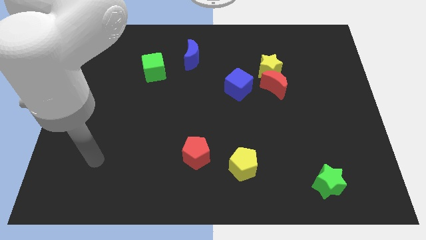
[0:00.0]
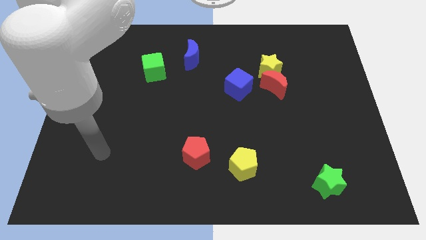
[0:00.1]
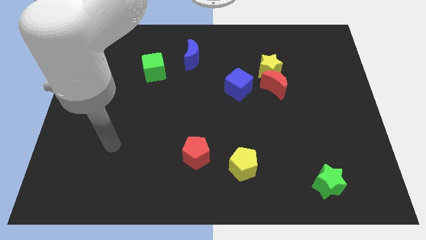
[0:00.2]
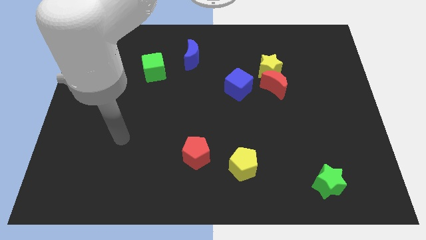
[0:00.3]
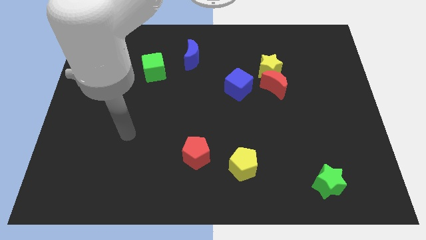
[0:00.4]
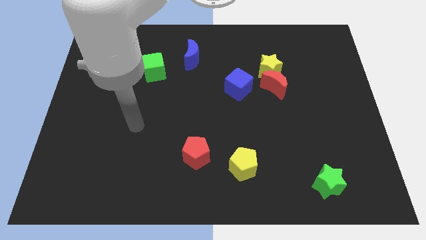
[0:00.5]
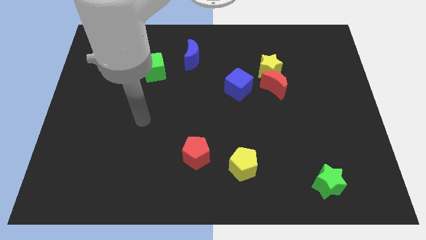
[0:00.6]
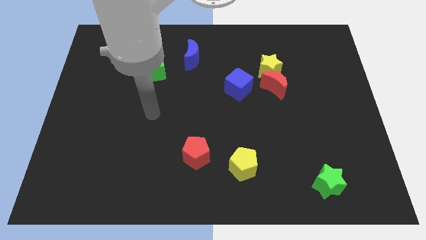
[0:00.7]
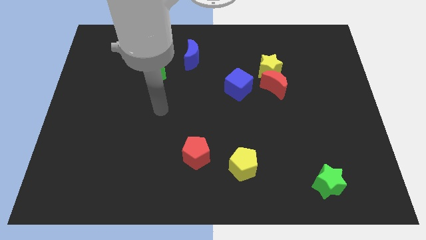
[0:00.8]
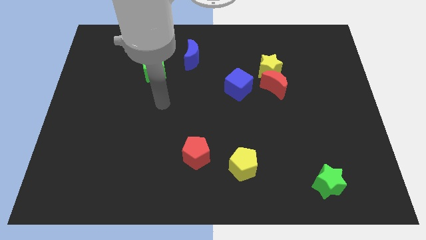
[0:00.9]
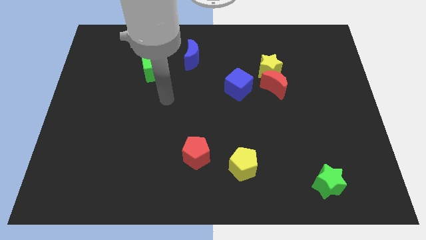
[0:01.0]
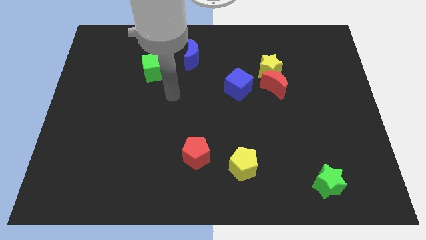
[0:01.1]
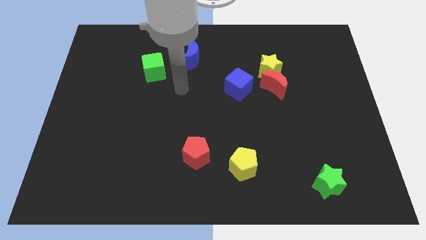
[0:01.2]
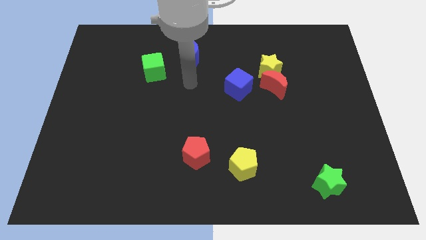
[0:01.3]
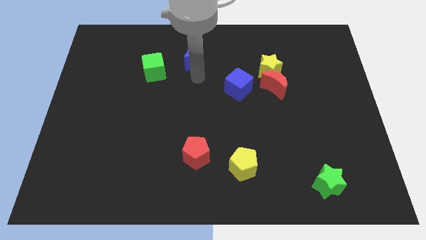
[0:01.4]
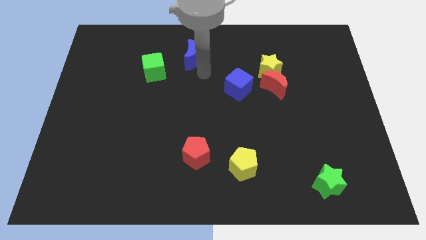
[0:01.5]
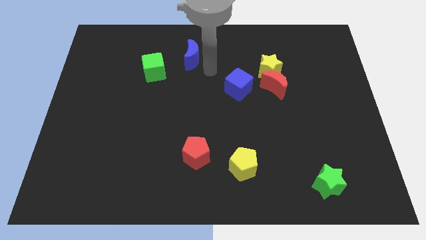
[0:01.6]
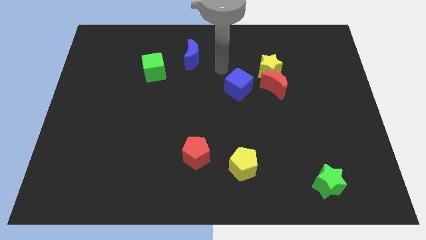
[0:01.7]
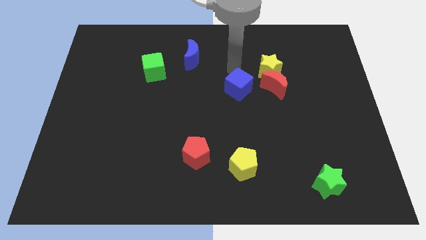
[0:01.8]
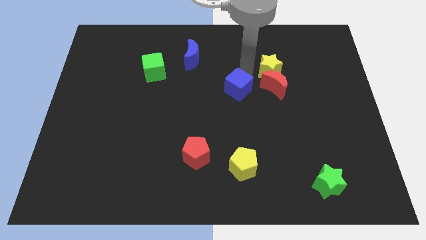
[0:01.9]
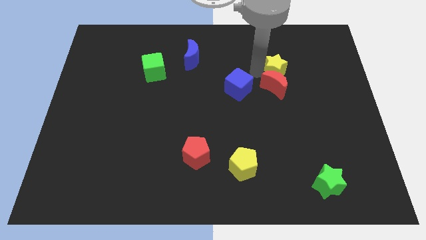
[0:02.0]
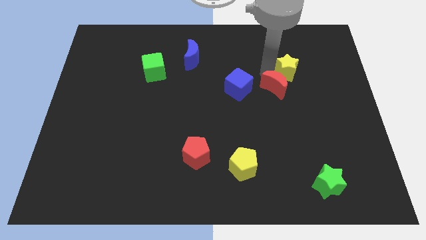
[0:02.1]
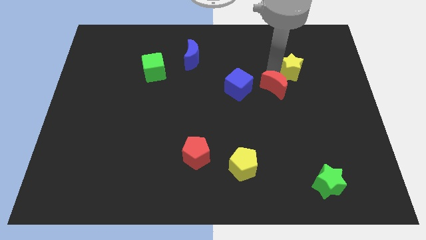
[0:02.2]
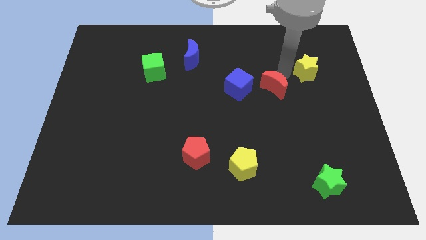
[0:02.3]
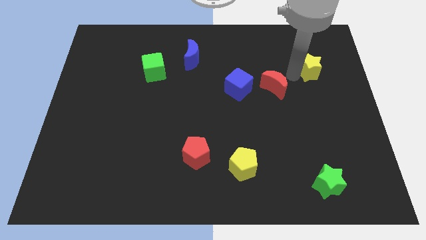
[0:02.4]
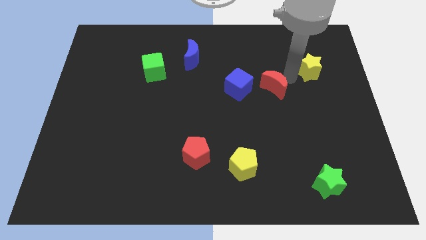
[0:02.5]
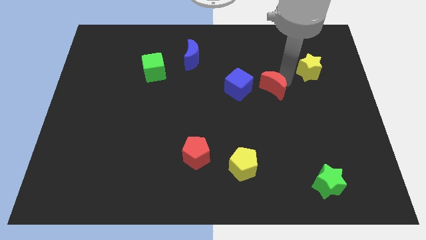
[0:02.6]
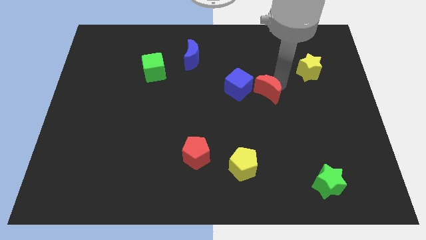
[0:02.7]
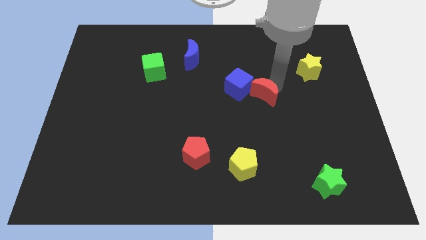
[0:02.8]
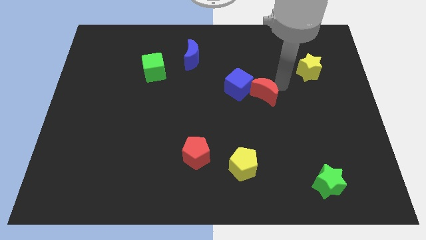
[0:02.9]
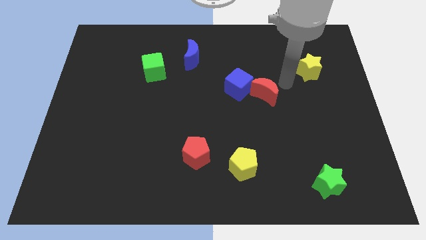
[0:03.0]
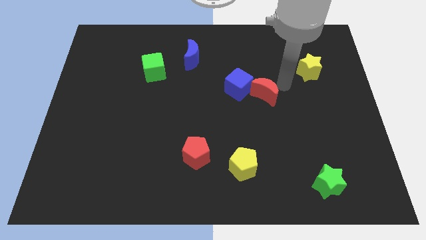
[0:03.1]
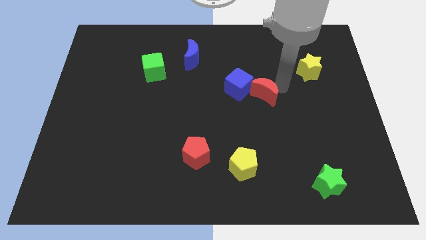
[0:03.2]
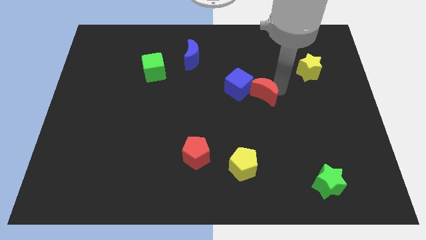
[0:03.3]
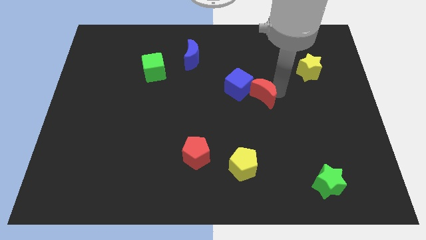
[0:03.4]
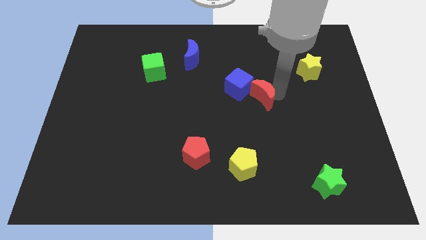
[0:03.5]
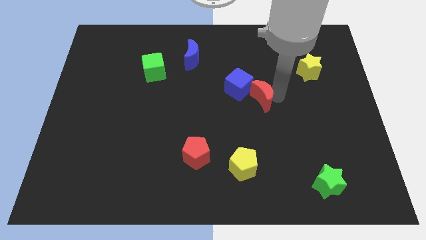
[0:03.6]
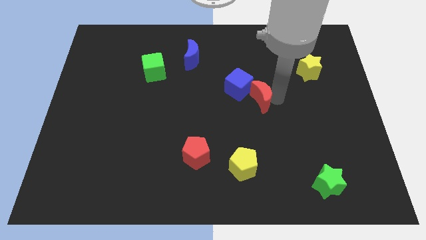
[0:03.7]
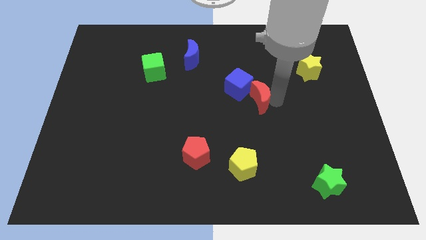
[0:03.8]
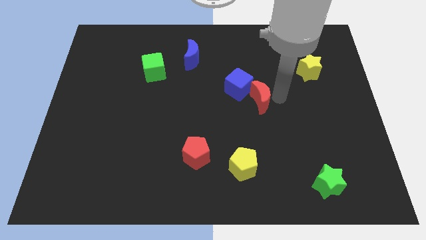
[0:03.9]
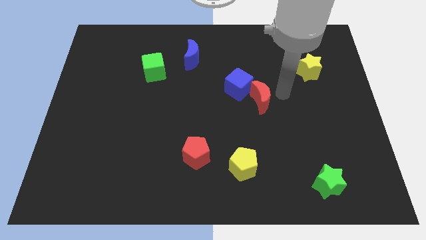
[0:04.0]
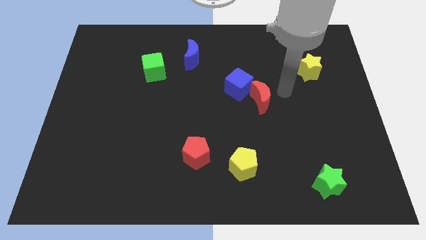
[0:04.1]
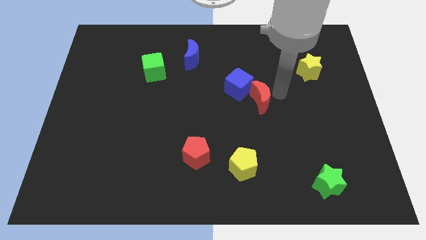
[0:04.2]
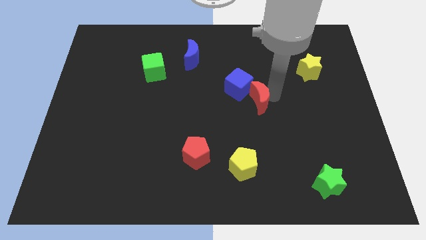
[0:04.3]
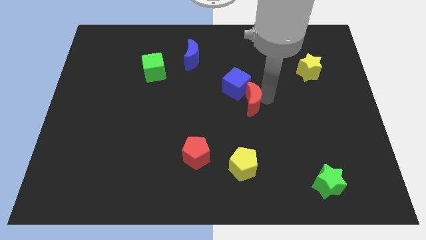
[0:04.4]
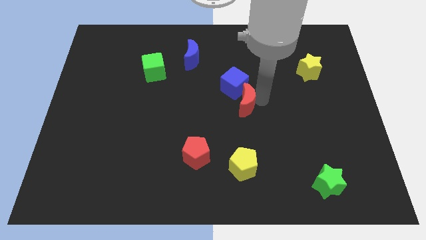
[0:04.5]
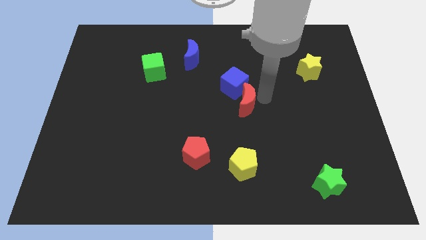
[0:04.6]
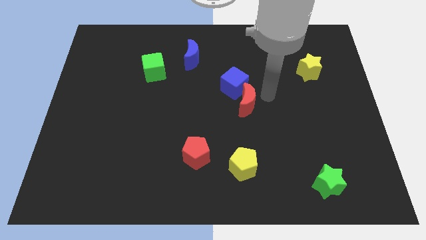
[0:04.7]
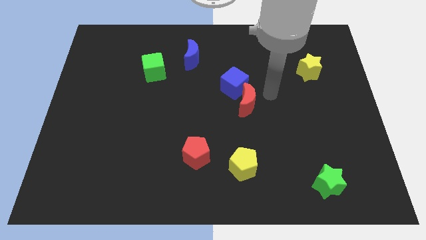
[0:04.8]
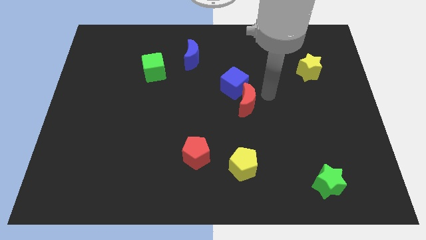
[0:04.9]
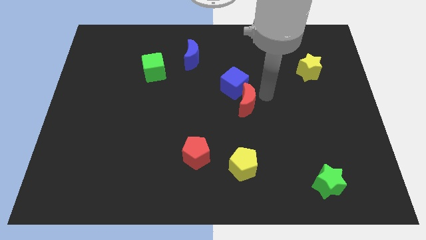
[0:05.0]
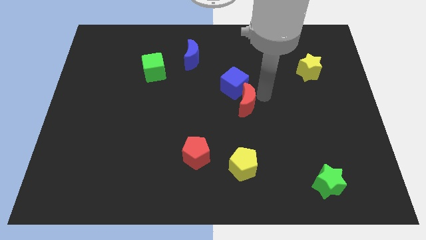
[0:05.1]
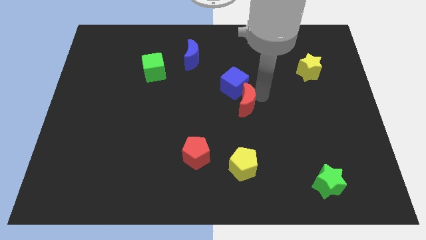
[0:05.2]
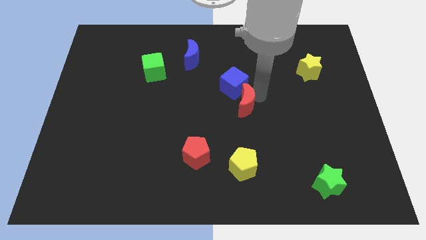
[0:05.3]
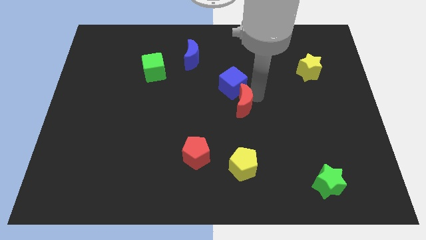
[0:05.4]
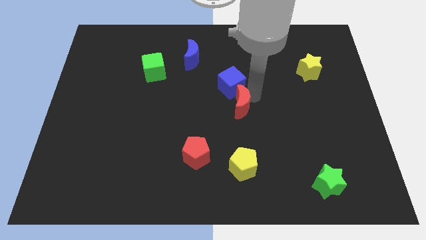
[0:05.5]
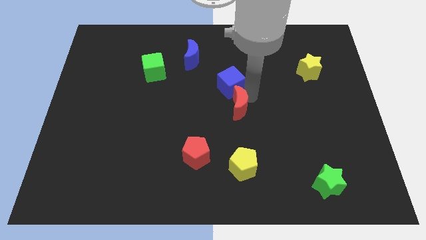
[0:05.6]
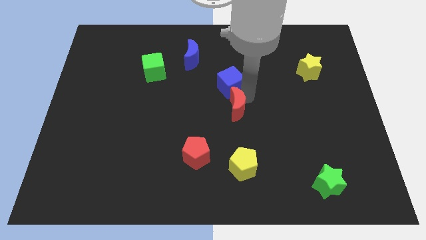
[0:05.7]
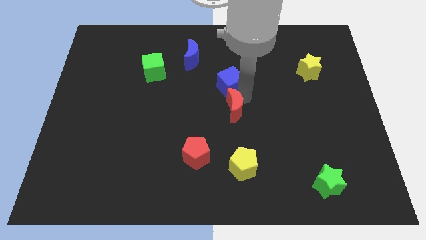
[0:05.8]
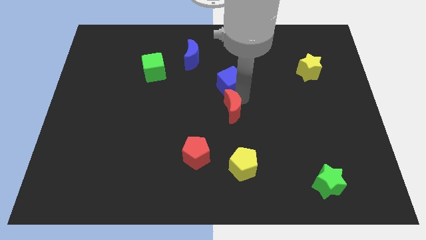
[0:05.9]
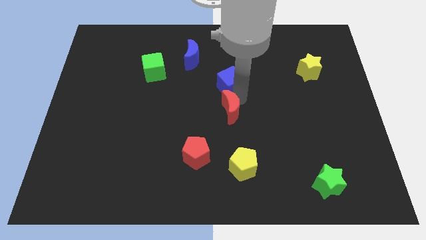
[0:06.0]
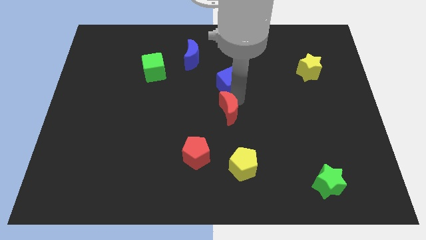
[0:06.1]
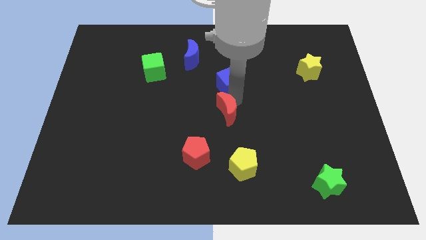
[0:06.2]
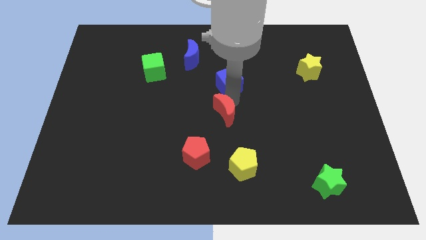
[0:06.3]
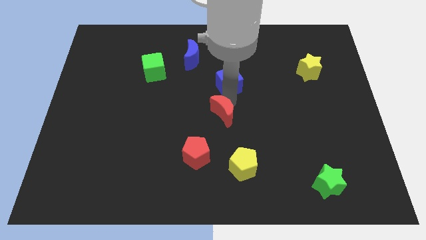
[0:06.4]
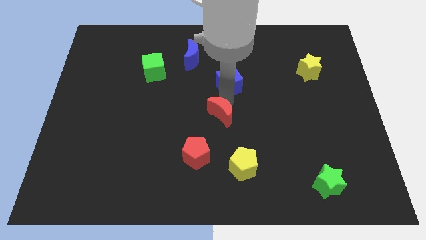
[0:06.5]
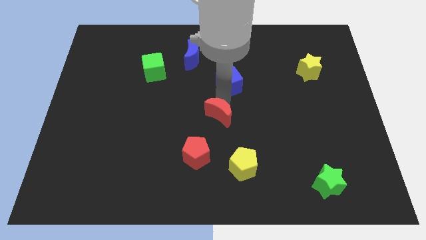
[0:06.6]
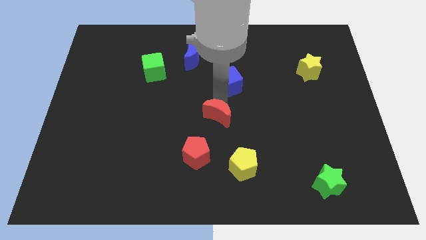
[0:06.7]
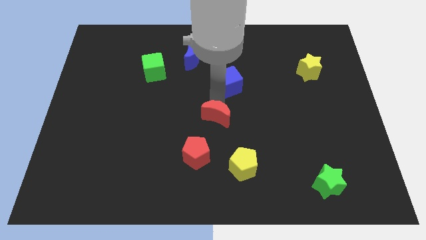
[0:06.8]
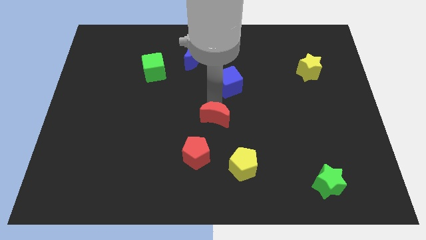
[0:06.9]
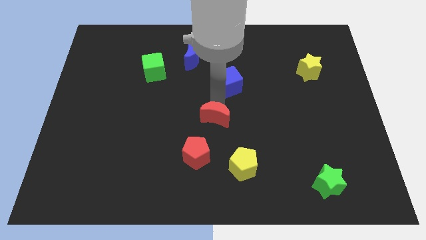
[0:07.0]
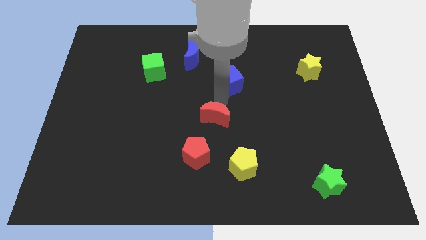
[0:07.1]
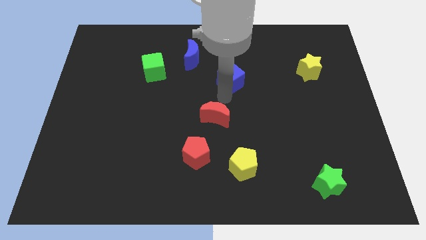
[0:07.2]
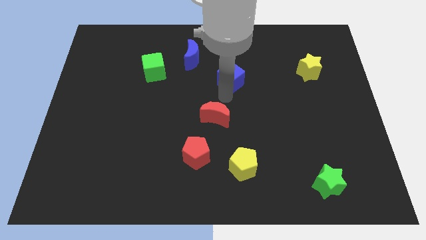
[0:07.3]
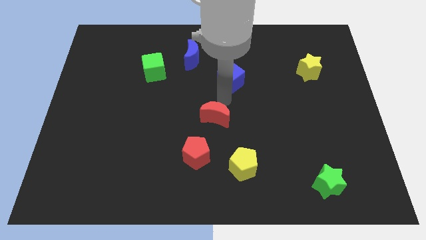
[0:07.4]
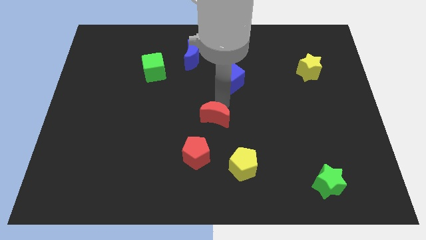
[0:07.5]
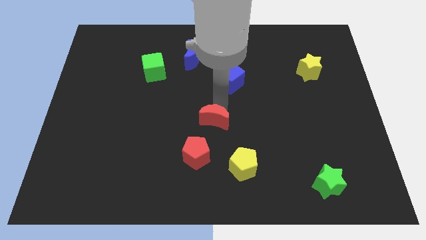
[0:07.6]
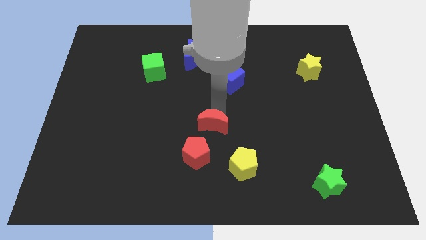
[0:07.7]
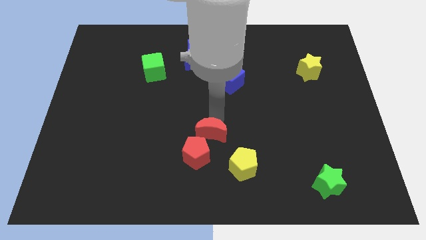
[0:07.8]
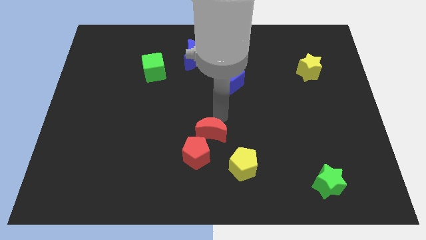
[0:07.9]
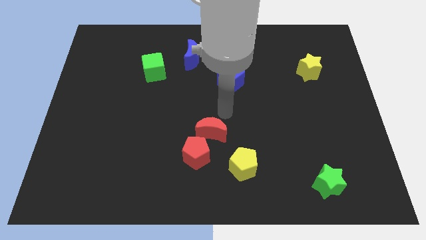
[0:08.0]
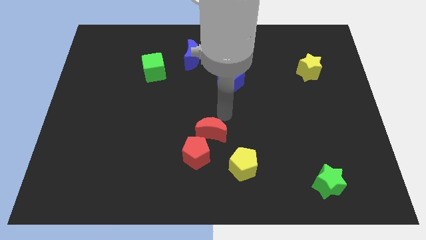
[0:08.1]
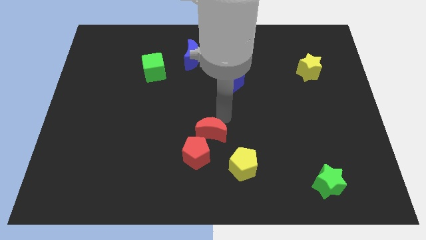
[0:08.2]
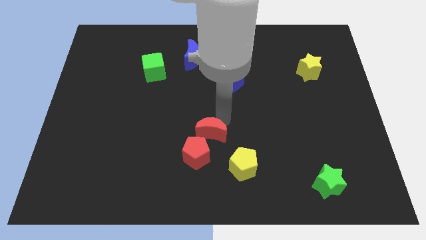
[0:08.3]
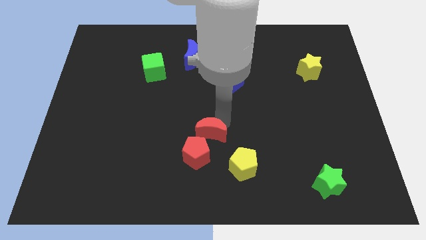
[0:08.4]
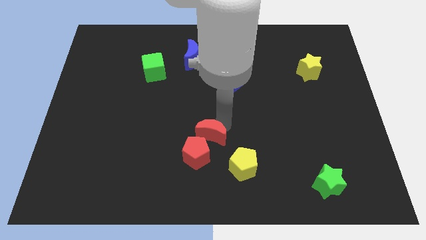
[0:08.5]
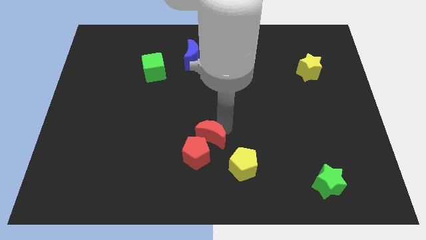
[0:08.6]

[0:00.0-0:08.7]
push the red moon close to the red pentagon
